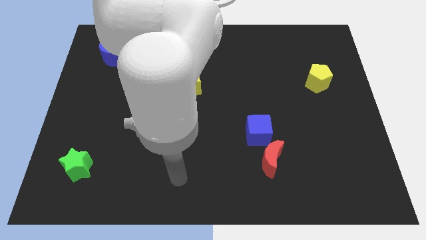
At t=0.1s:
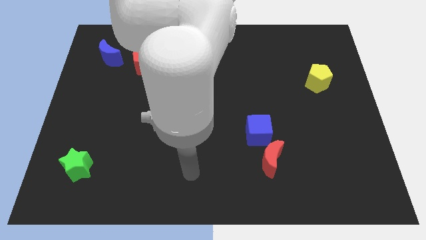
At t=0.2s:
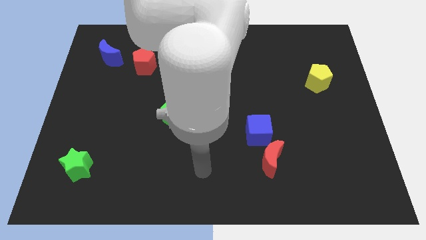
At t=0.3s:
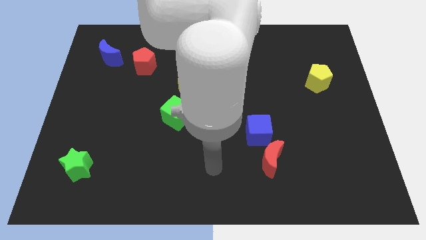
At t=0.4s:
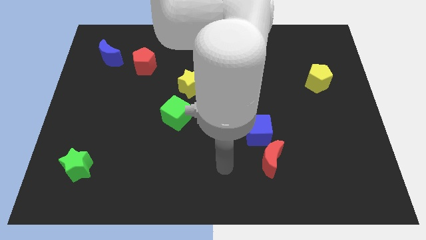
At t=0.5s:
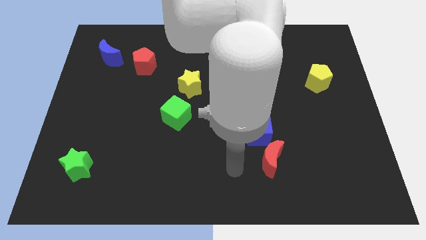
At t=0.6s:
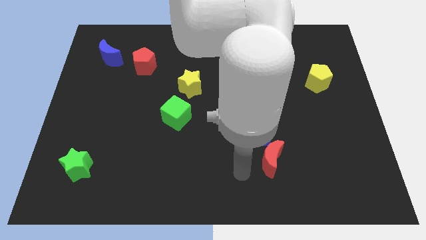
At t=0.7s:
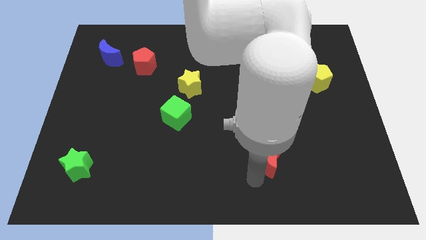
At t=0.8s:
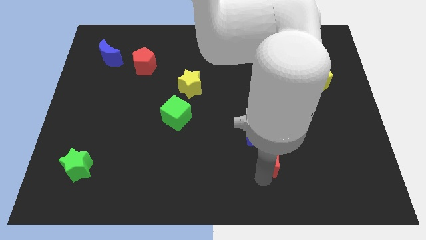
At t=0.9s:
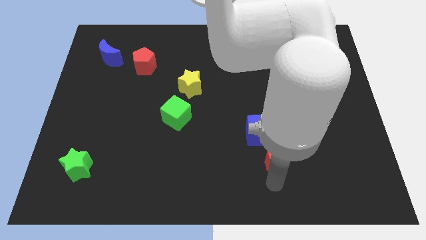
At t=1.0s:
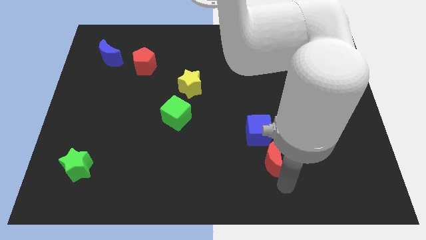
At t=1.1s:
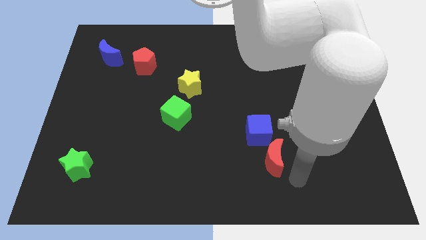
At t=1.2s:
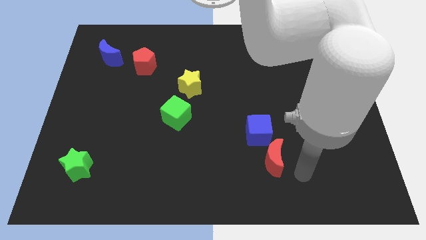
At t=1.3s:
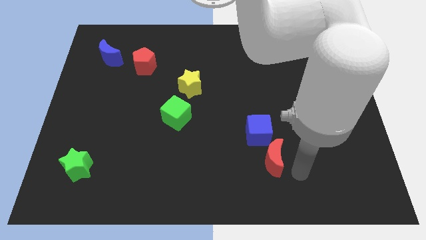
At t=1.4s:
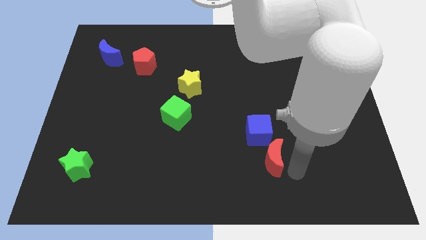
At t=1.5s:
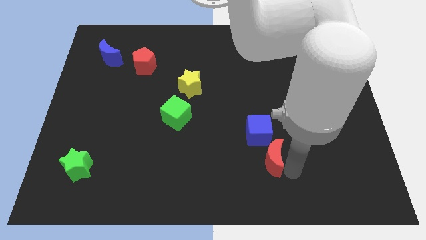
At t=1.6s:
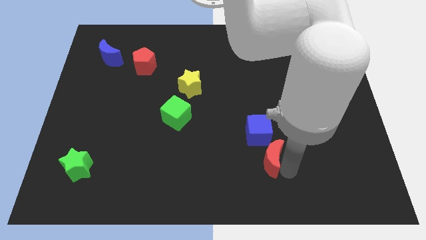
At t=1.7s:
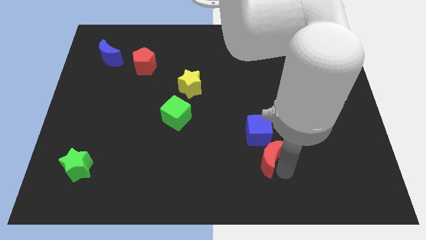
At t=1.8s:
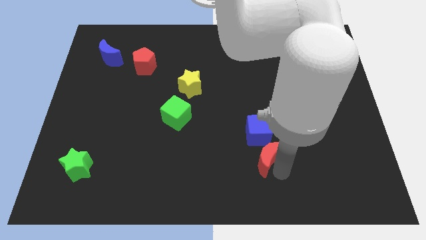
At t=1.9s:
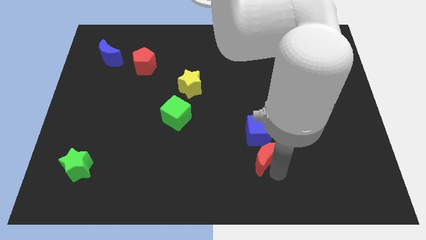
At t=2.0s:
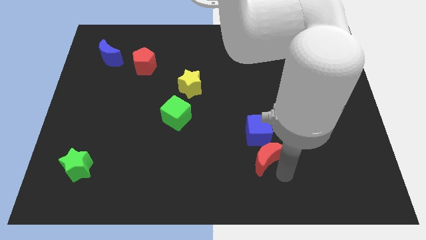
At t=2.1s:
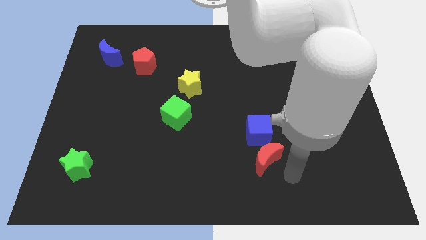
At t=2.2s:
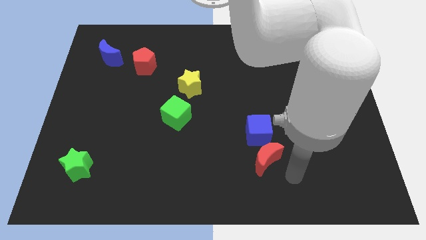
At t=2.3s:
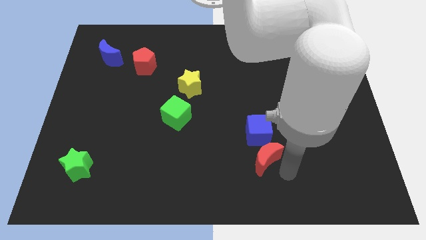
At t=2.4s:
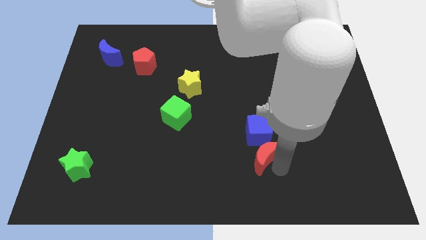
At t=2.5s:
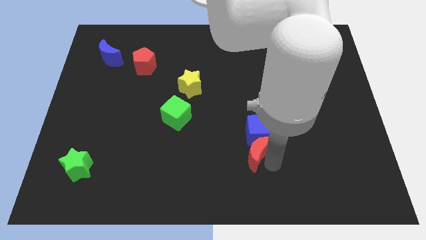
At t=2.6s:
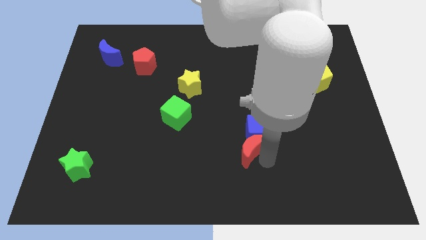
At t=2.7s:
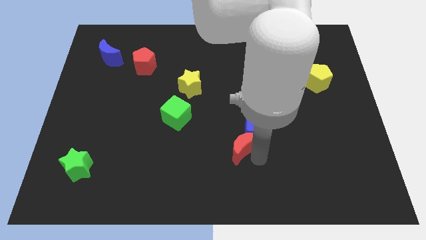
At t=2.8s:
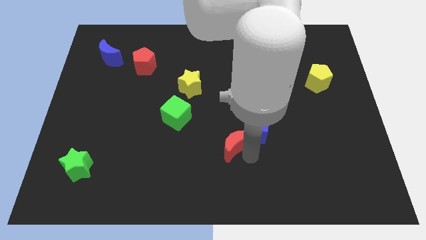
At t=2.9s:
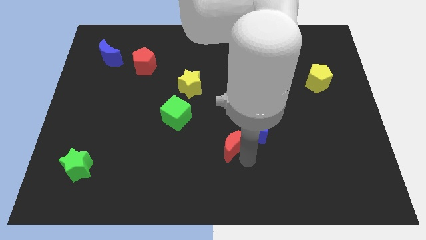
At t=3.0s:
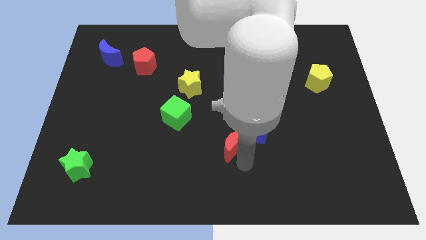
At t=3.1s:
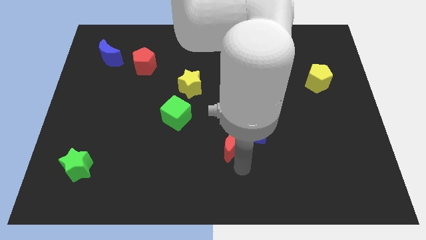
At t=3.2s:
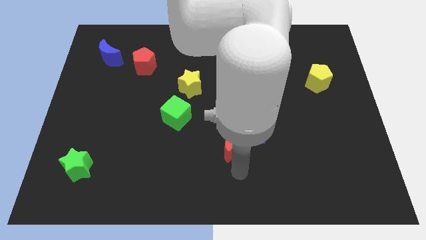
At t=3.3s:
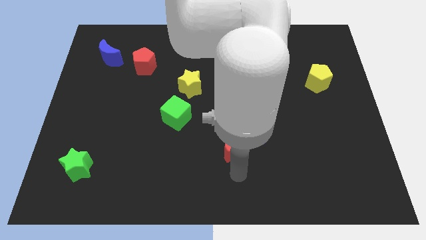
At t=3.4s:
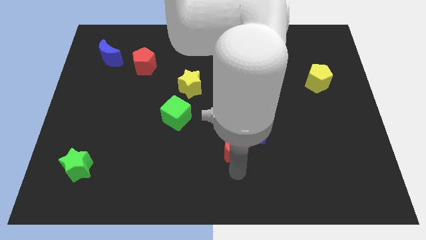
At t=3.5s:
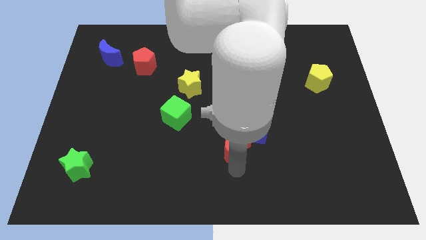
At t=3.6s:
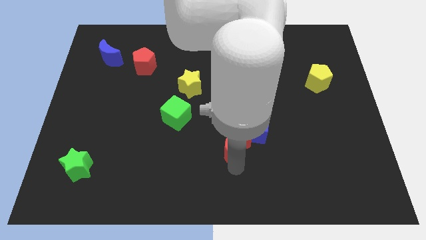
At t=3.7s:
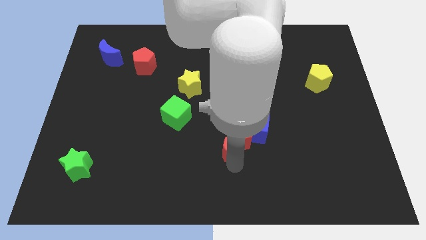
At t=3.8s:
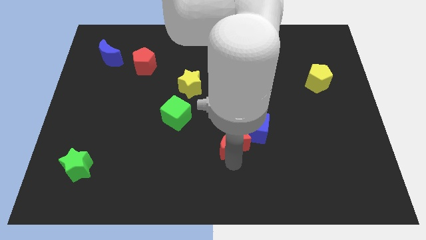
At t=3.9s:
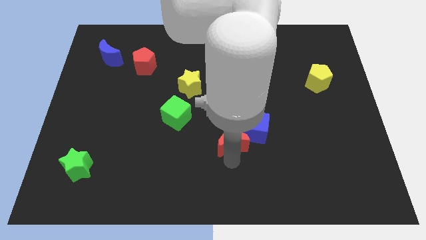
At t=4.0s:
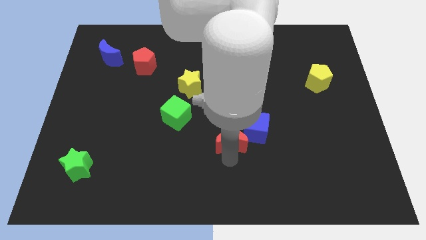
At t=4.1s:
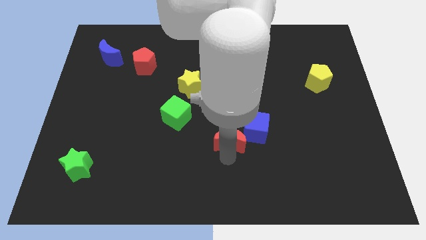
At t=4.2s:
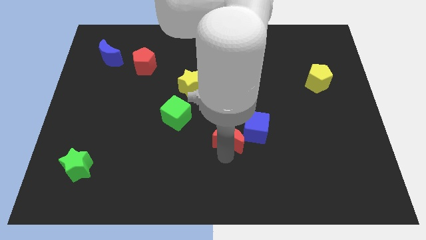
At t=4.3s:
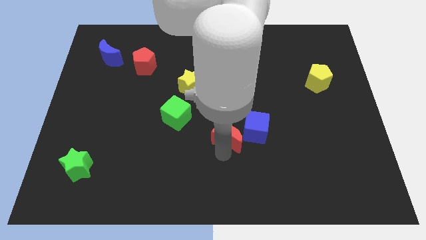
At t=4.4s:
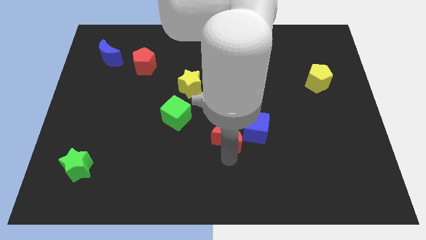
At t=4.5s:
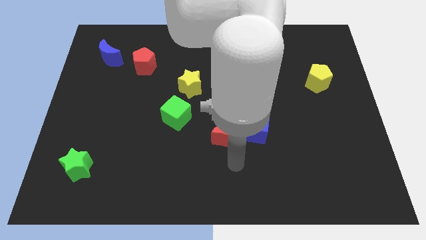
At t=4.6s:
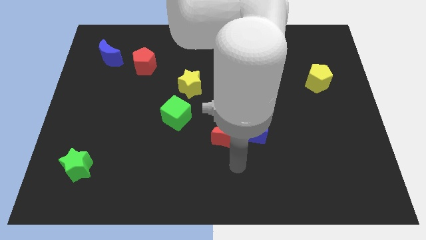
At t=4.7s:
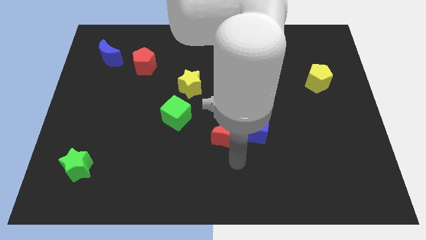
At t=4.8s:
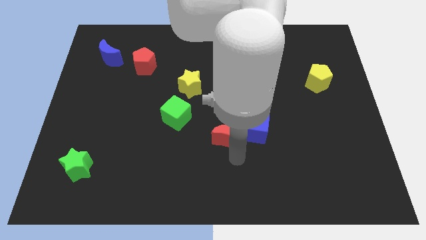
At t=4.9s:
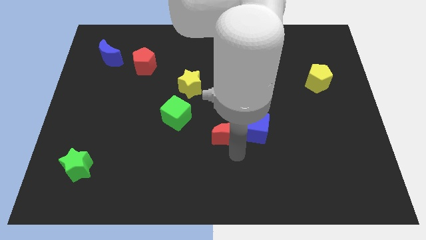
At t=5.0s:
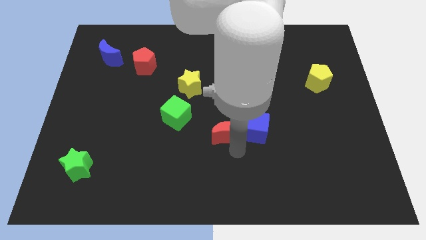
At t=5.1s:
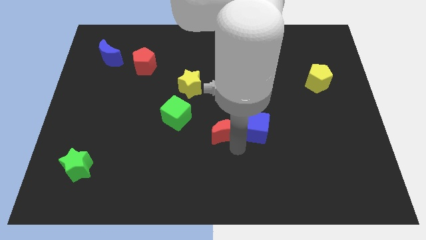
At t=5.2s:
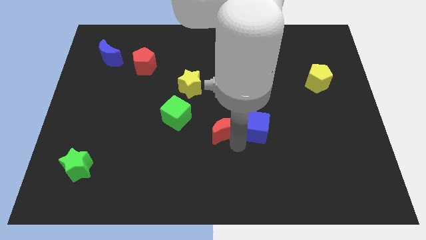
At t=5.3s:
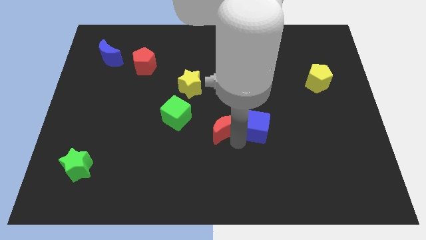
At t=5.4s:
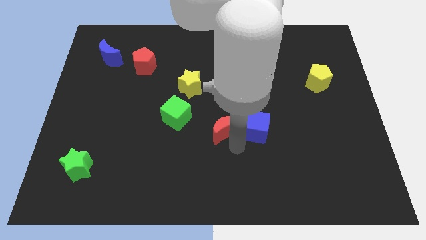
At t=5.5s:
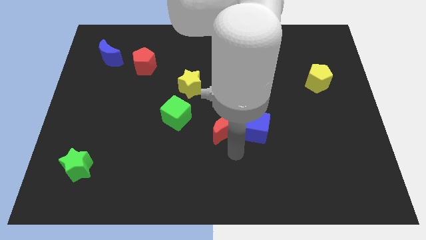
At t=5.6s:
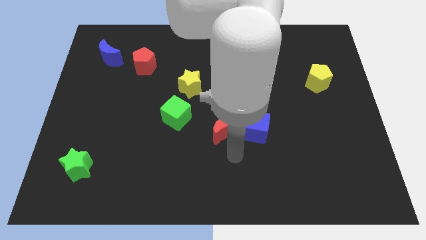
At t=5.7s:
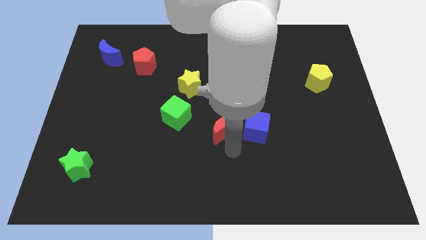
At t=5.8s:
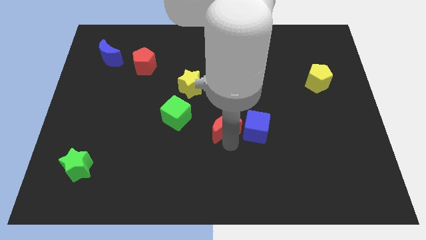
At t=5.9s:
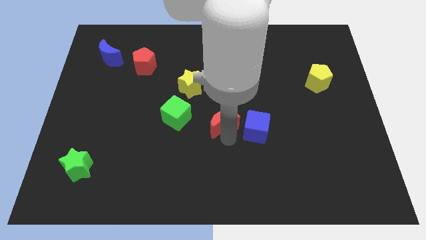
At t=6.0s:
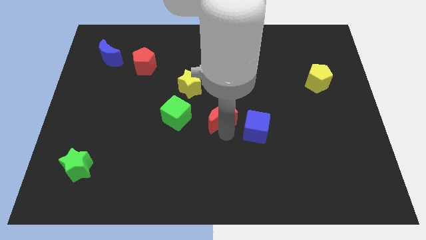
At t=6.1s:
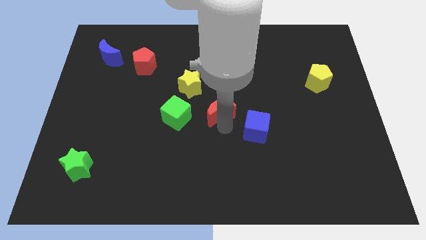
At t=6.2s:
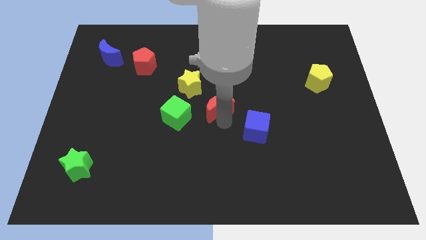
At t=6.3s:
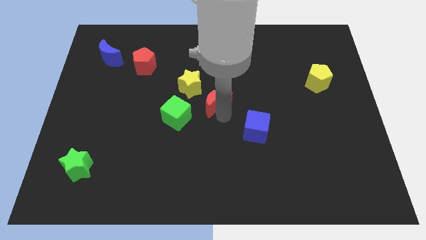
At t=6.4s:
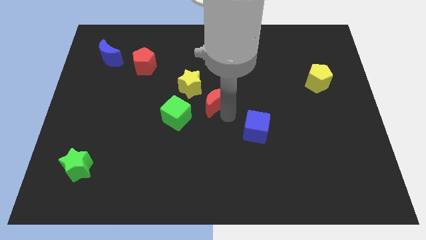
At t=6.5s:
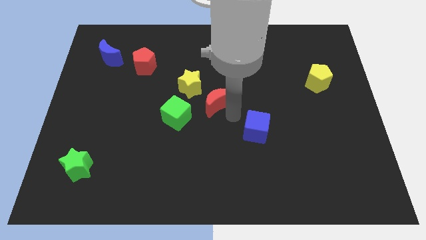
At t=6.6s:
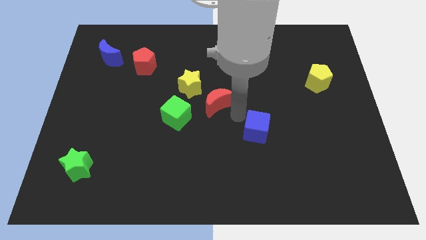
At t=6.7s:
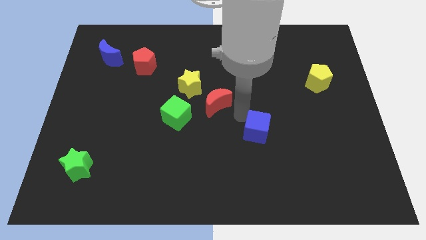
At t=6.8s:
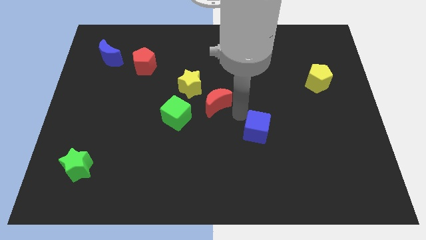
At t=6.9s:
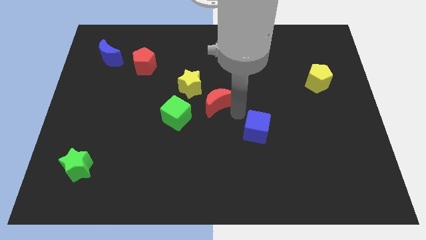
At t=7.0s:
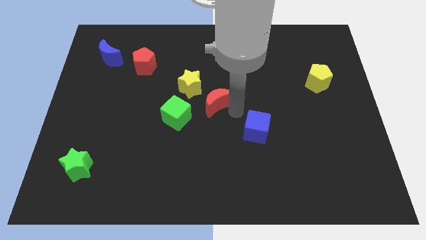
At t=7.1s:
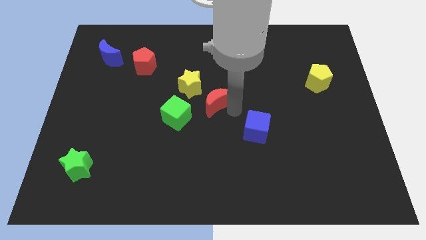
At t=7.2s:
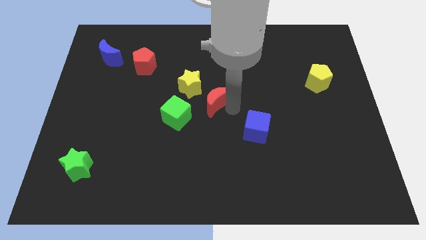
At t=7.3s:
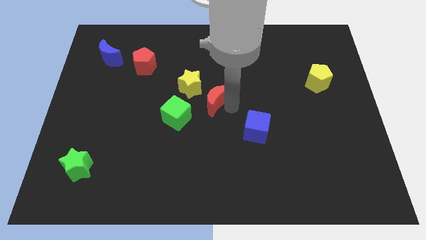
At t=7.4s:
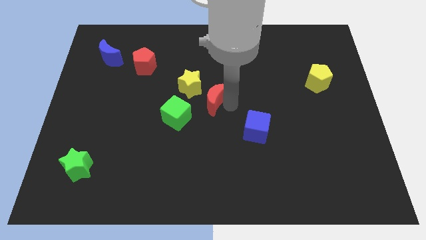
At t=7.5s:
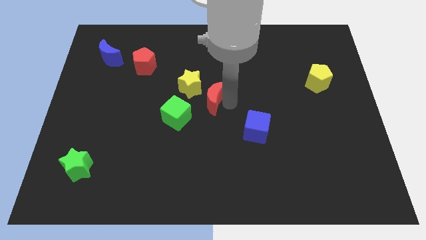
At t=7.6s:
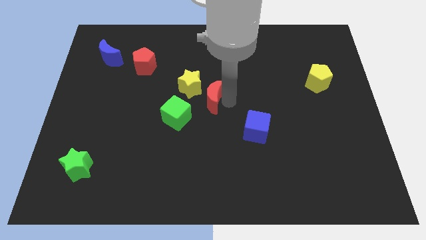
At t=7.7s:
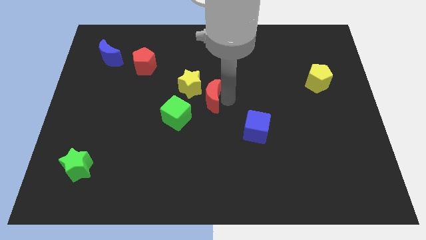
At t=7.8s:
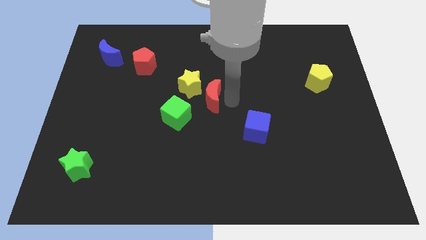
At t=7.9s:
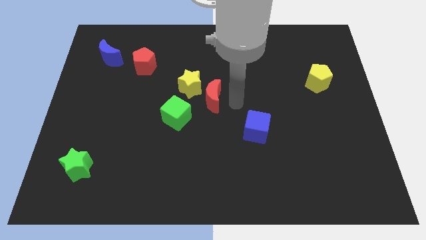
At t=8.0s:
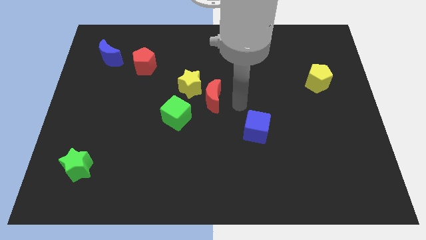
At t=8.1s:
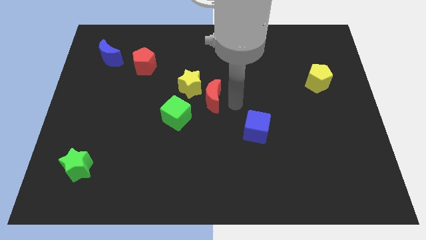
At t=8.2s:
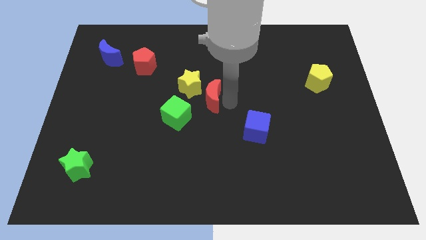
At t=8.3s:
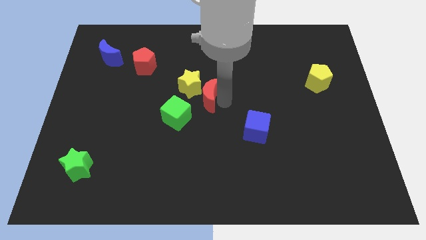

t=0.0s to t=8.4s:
push the red moon next to the yellow star
